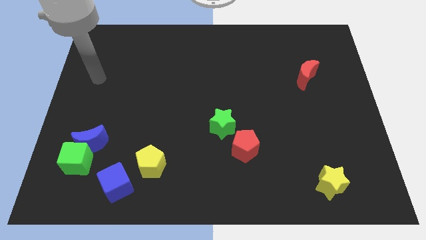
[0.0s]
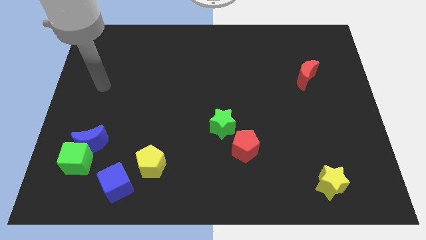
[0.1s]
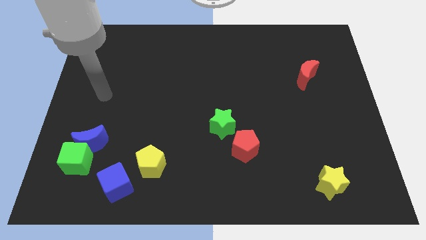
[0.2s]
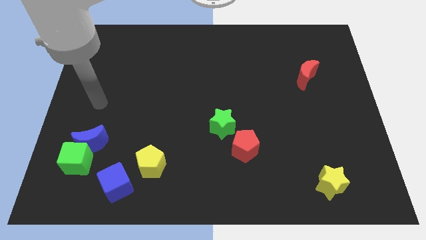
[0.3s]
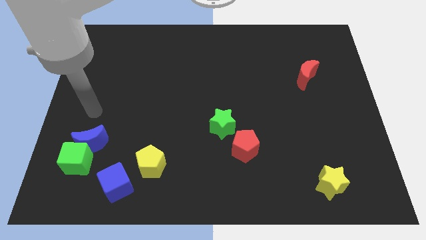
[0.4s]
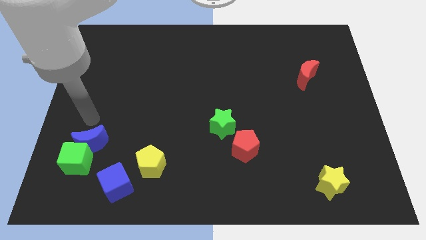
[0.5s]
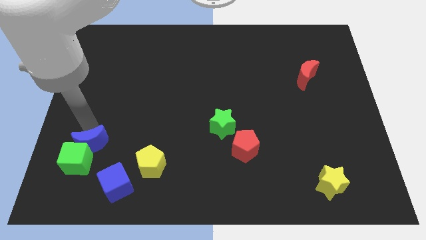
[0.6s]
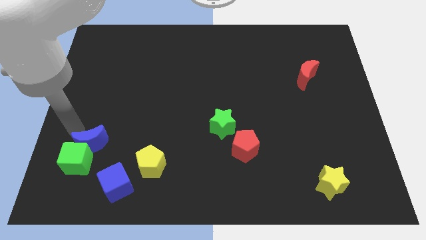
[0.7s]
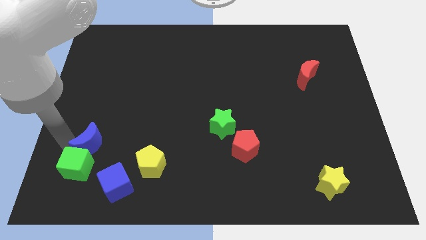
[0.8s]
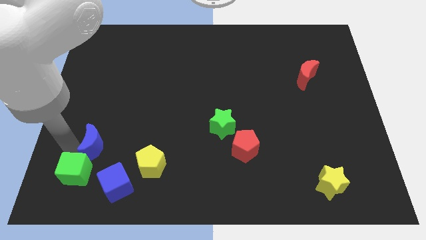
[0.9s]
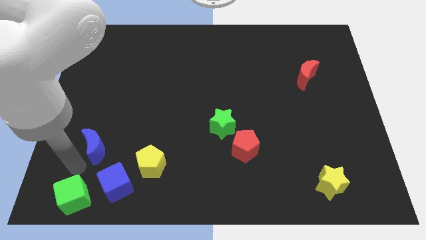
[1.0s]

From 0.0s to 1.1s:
separate the blue moon from the green cube

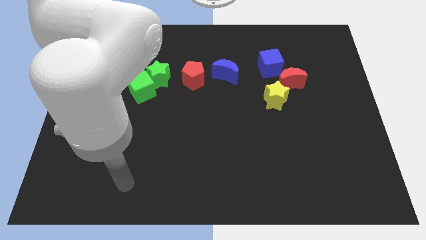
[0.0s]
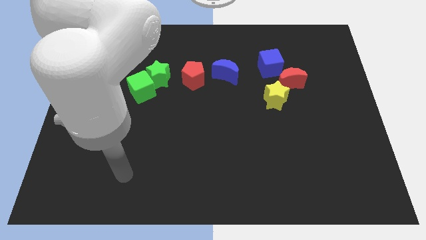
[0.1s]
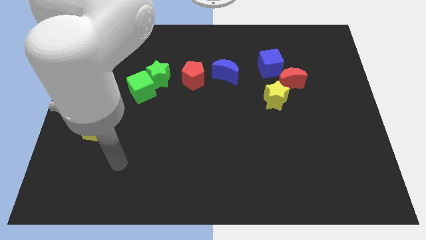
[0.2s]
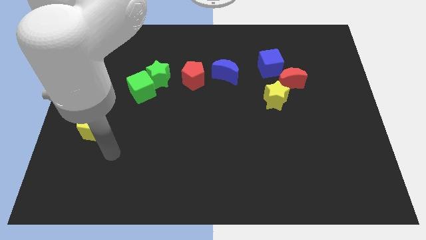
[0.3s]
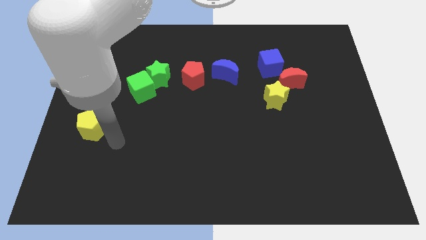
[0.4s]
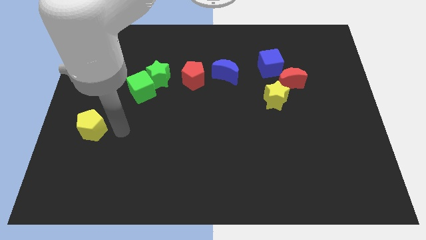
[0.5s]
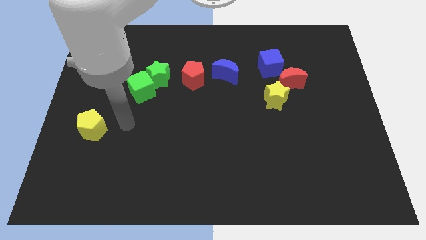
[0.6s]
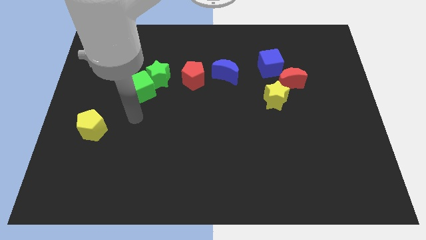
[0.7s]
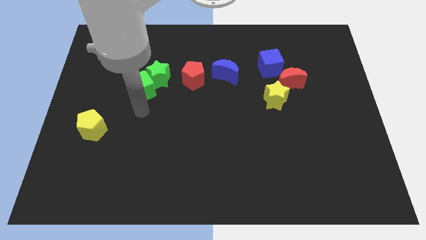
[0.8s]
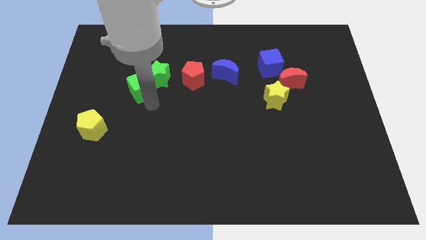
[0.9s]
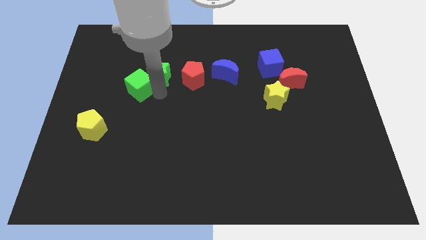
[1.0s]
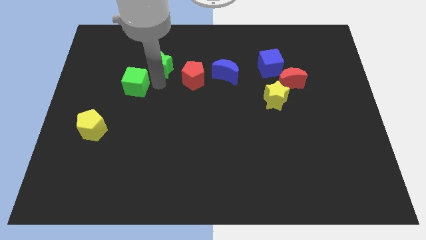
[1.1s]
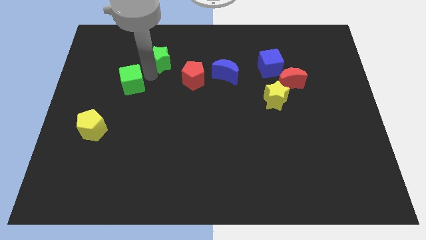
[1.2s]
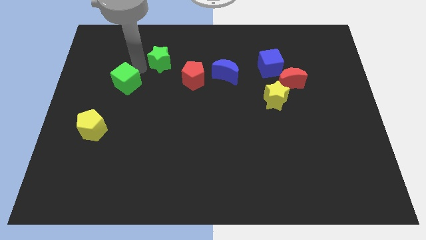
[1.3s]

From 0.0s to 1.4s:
pull the green cube apart from the green star

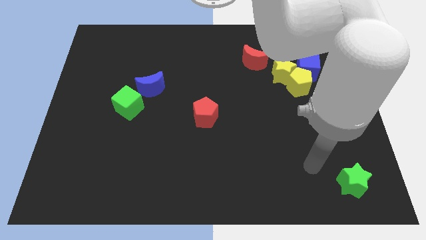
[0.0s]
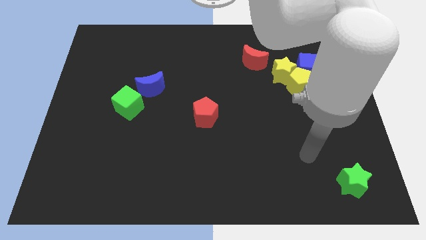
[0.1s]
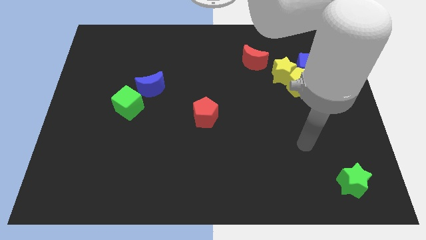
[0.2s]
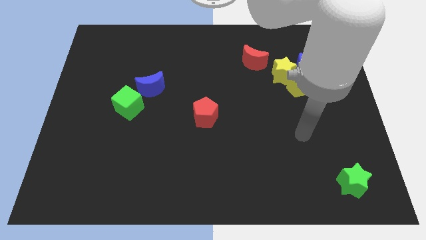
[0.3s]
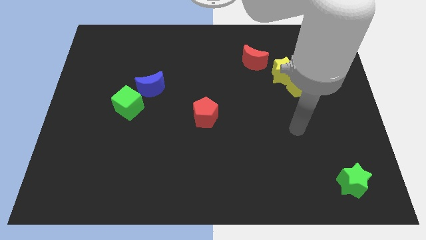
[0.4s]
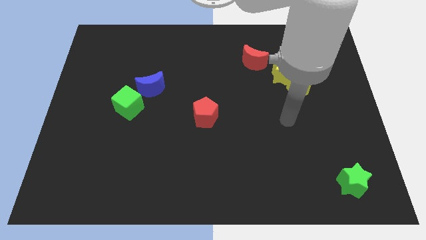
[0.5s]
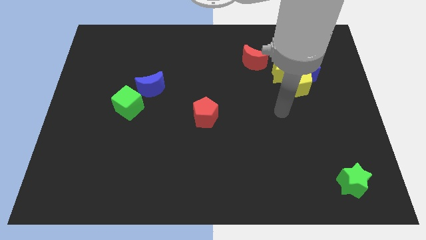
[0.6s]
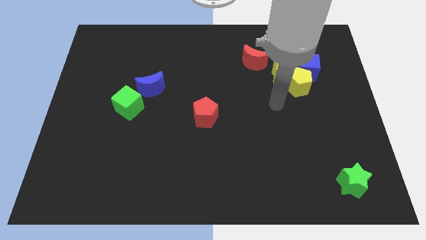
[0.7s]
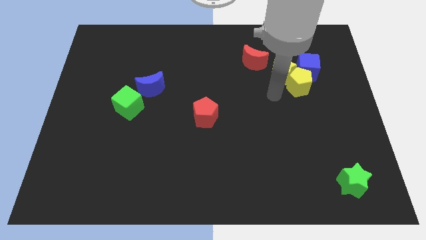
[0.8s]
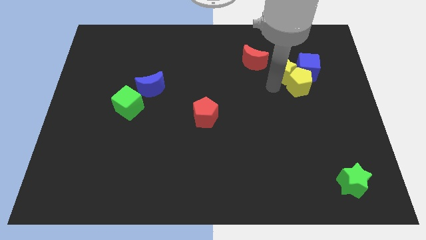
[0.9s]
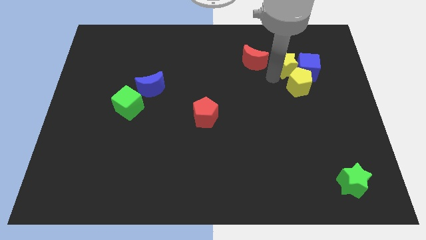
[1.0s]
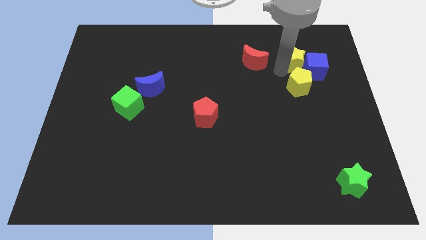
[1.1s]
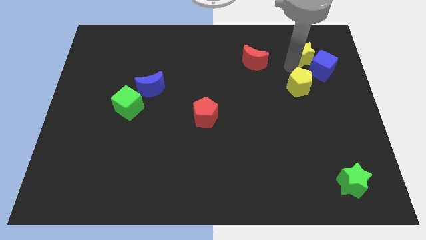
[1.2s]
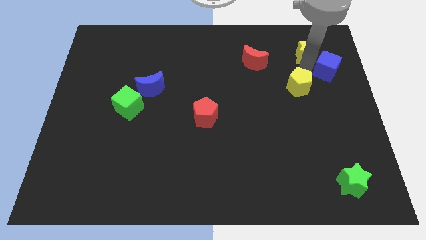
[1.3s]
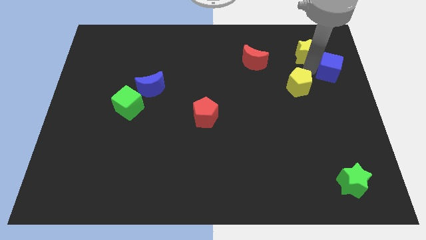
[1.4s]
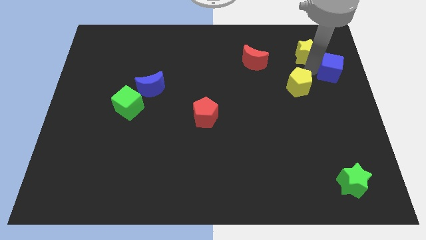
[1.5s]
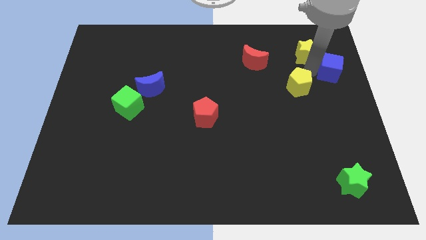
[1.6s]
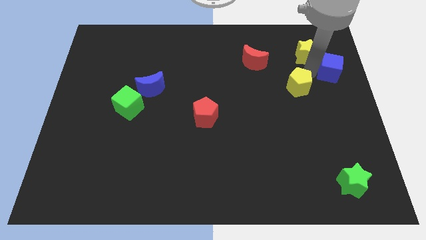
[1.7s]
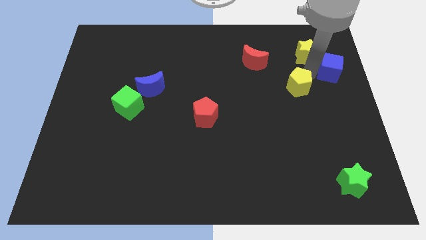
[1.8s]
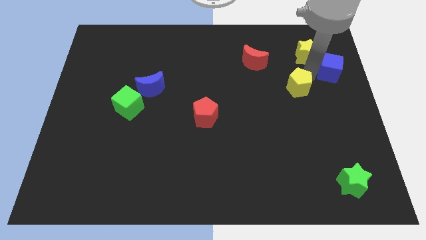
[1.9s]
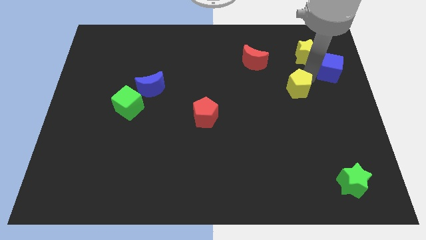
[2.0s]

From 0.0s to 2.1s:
pull the yellow pentagon apart from the yellow star and blue cube

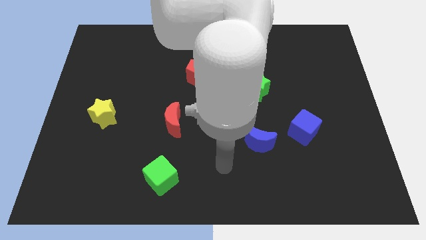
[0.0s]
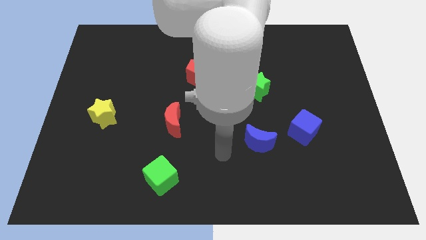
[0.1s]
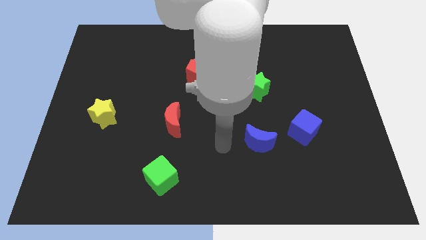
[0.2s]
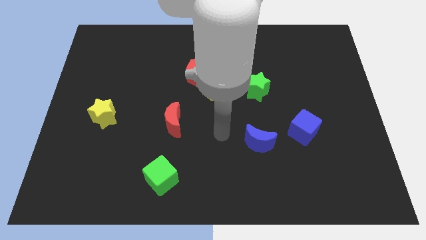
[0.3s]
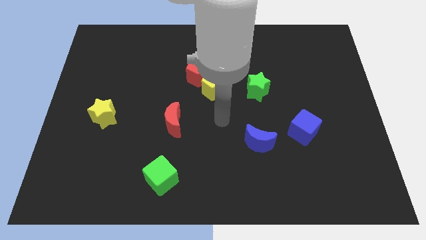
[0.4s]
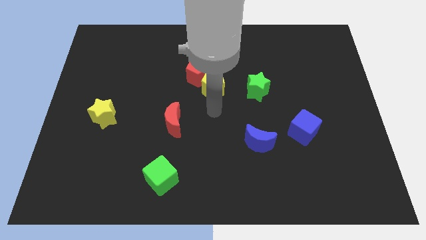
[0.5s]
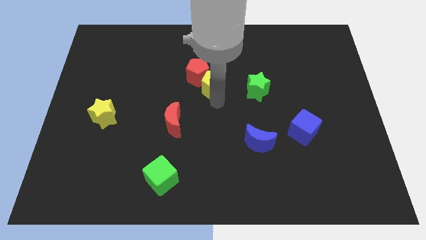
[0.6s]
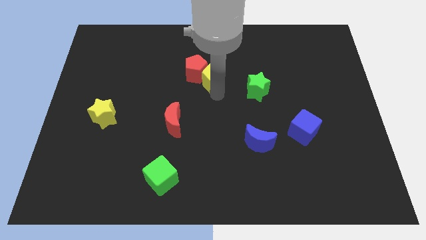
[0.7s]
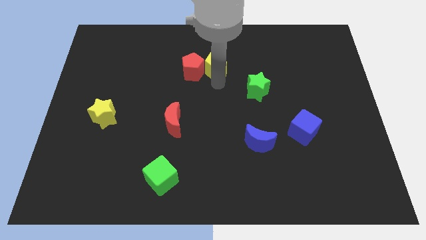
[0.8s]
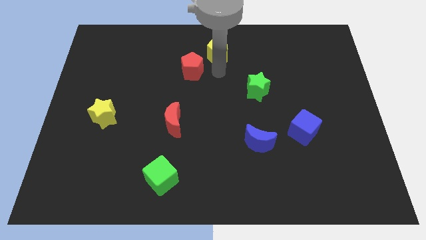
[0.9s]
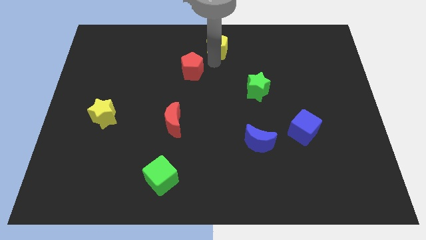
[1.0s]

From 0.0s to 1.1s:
pull the red pentagon apart from the yellow pentagon

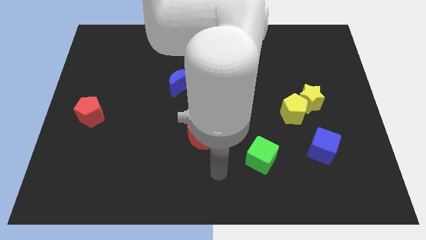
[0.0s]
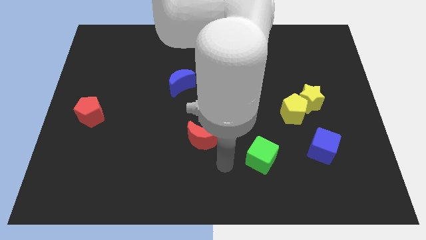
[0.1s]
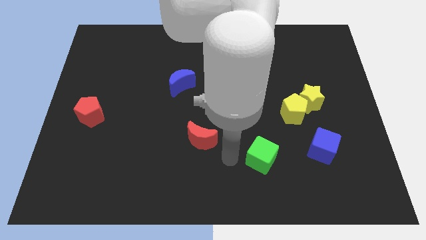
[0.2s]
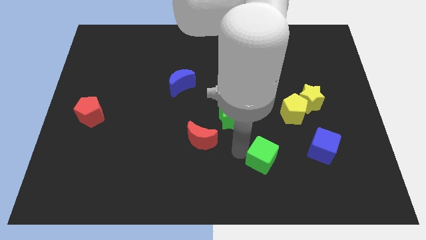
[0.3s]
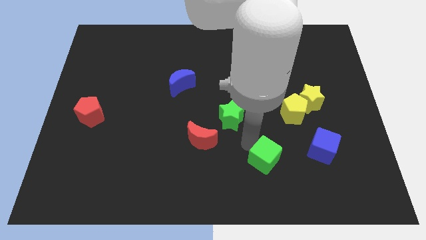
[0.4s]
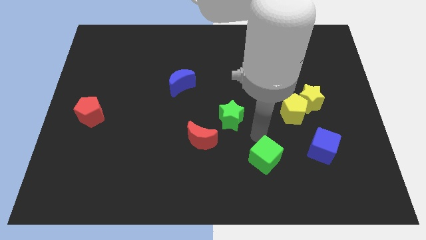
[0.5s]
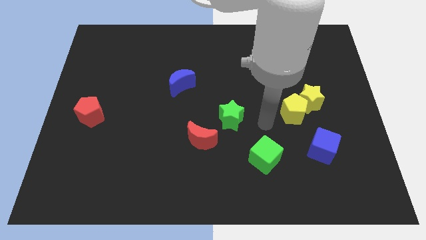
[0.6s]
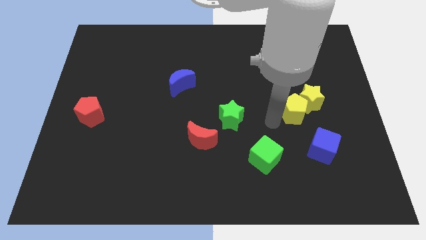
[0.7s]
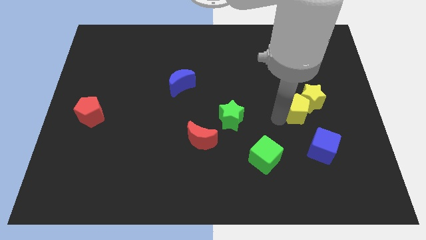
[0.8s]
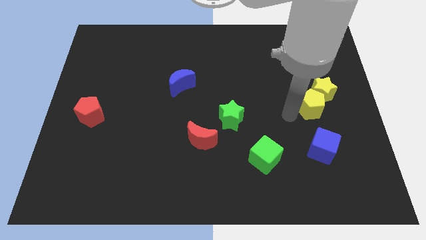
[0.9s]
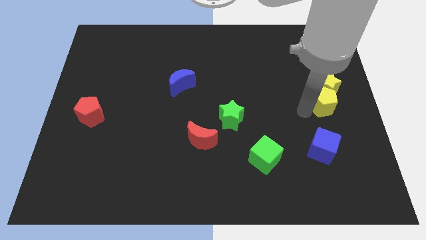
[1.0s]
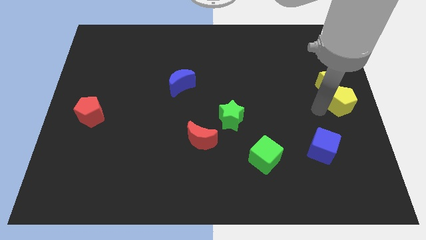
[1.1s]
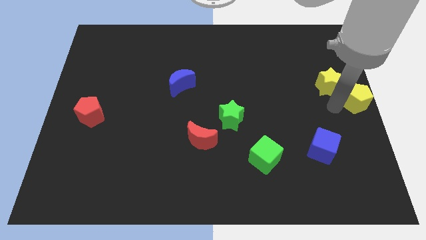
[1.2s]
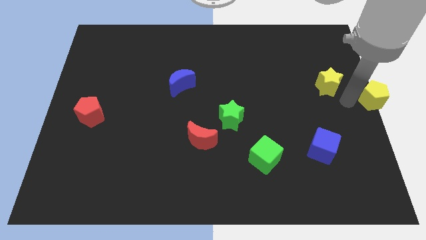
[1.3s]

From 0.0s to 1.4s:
move the yellow star away from the yellow pentagon

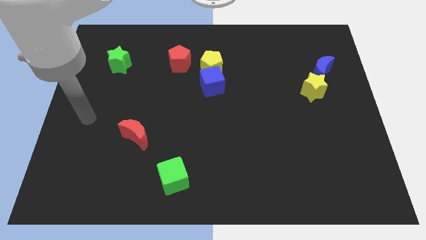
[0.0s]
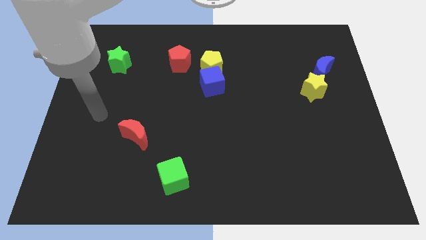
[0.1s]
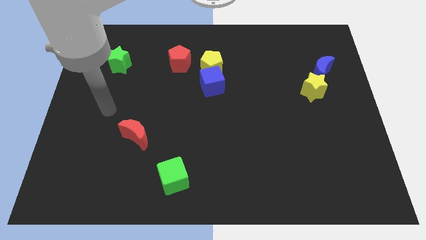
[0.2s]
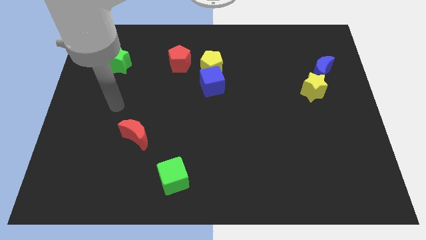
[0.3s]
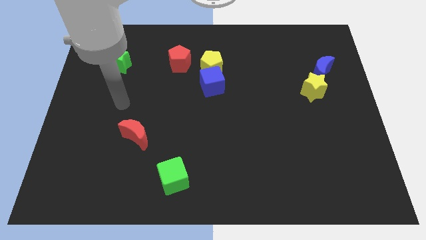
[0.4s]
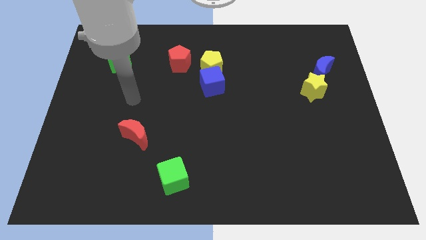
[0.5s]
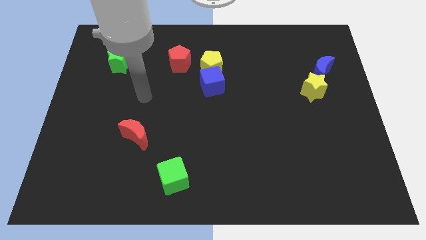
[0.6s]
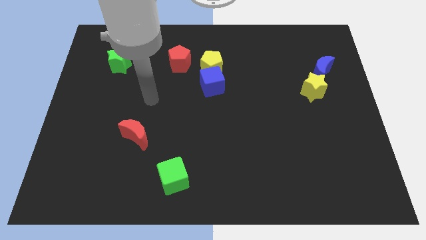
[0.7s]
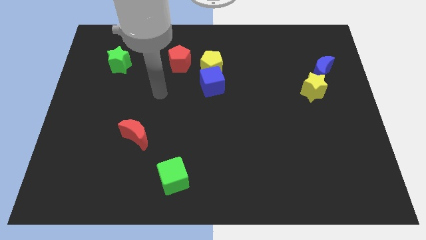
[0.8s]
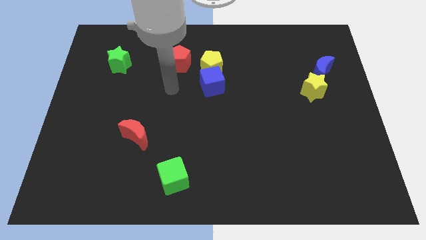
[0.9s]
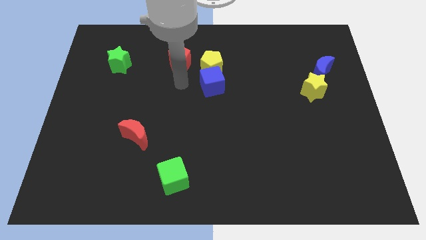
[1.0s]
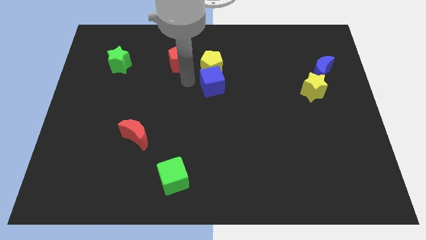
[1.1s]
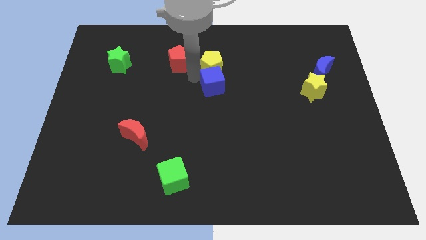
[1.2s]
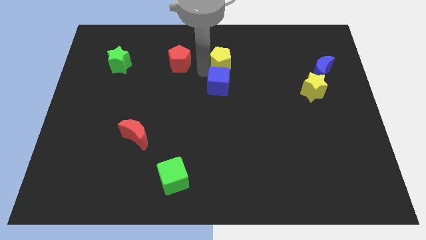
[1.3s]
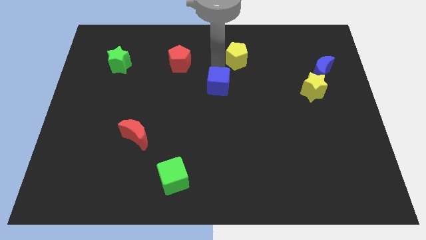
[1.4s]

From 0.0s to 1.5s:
move the blue cube away from the yellow pentagon

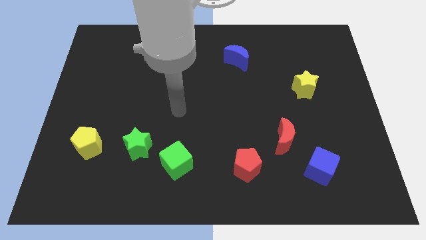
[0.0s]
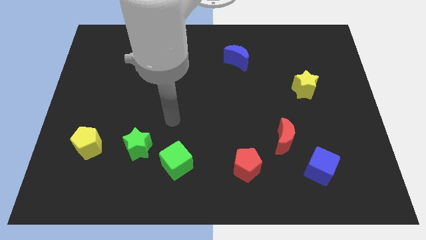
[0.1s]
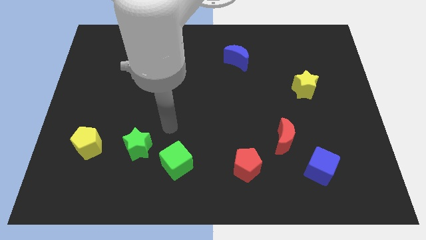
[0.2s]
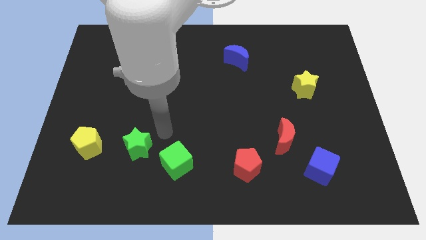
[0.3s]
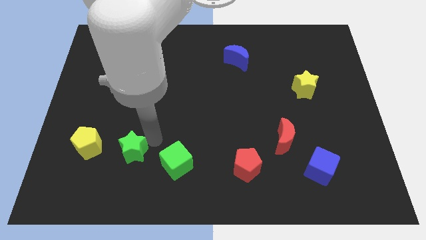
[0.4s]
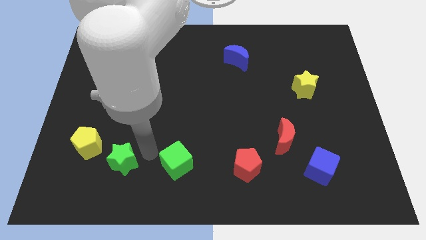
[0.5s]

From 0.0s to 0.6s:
move the green cube away from the green star

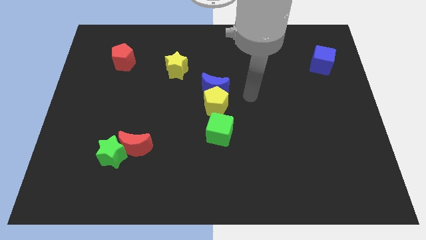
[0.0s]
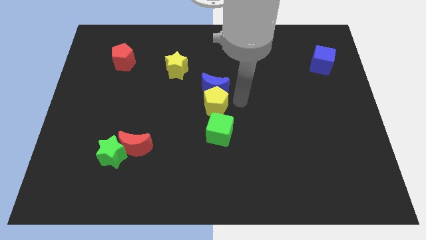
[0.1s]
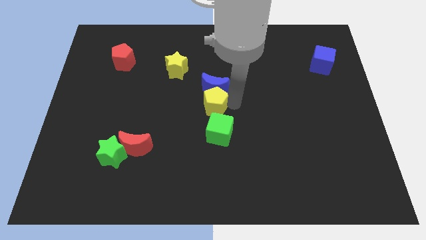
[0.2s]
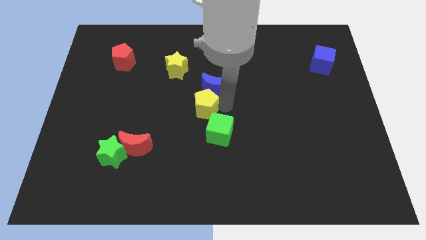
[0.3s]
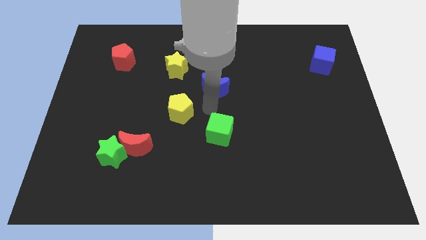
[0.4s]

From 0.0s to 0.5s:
separate the blue moon from the yellow pentagon
